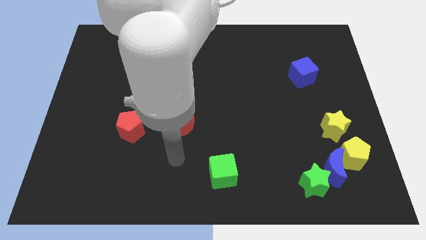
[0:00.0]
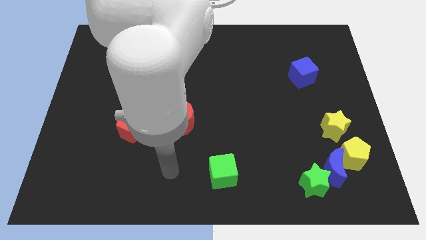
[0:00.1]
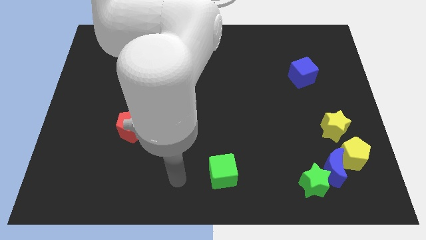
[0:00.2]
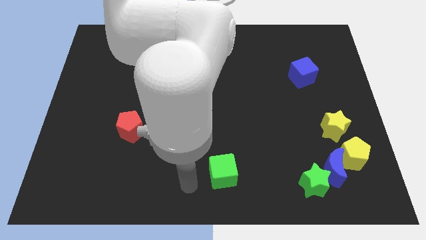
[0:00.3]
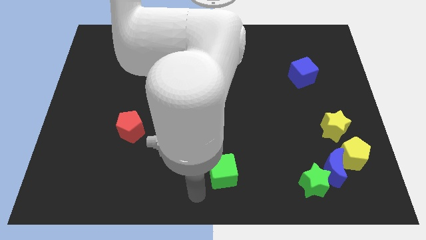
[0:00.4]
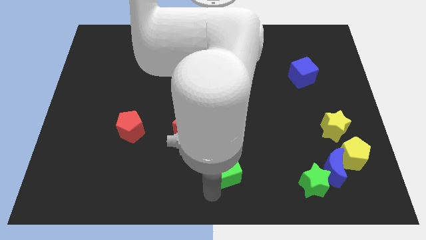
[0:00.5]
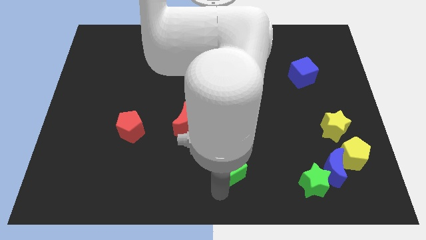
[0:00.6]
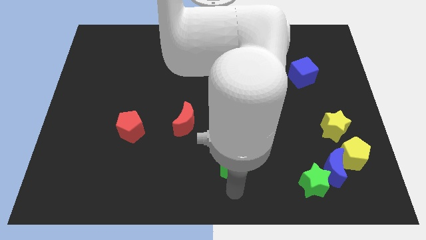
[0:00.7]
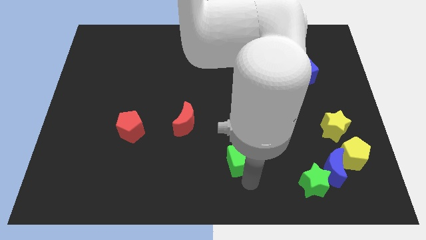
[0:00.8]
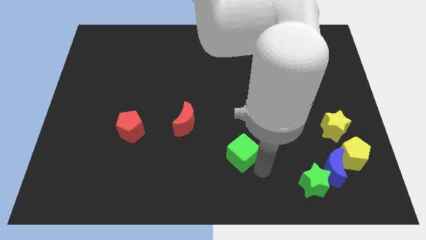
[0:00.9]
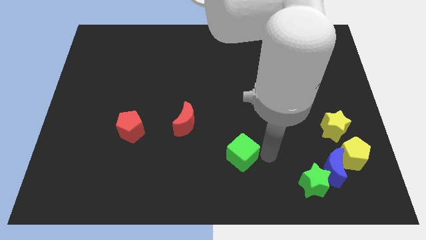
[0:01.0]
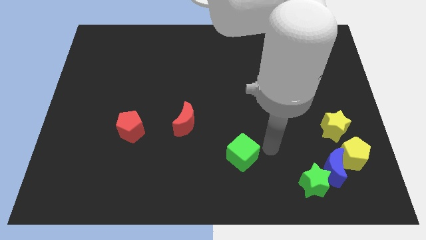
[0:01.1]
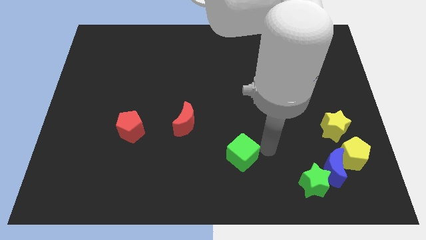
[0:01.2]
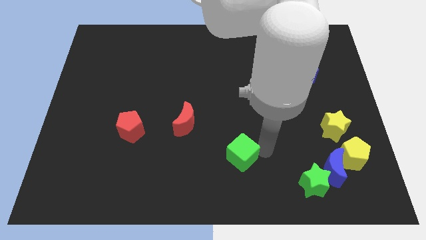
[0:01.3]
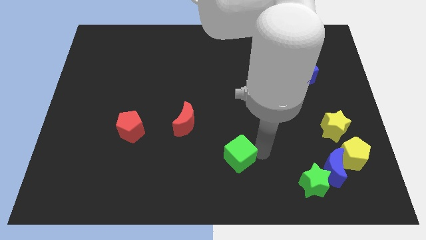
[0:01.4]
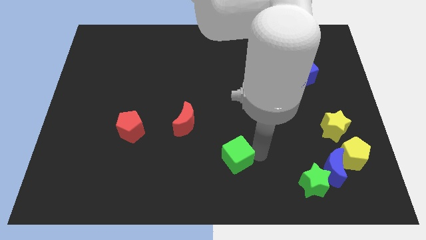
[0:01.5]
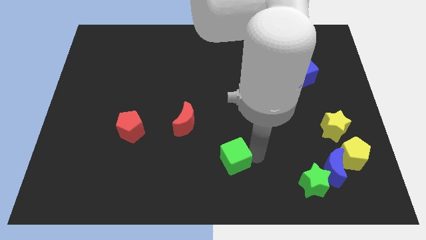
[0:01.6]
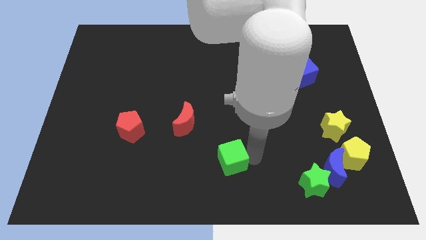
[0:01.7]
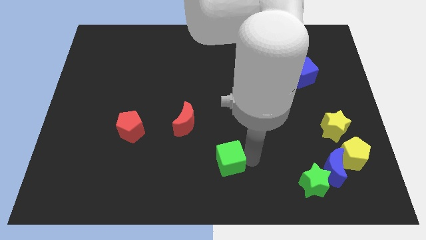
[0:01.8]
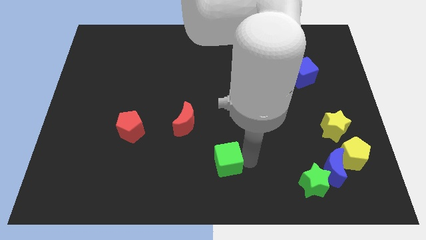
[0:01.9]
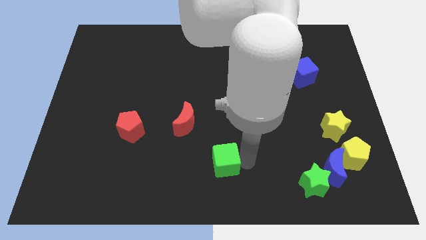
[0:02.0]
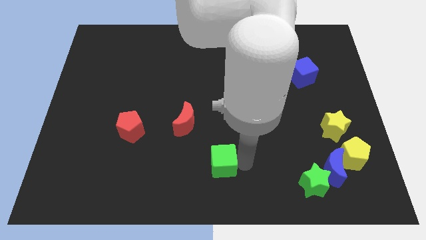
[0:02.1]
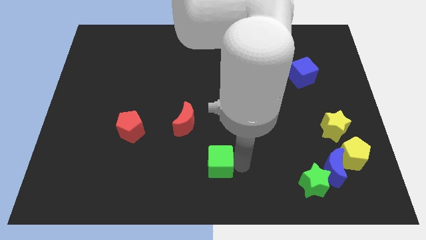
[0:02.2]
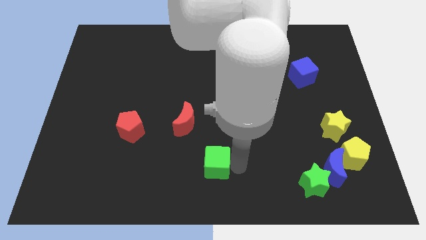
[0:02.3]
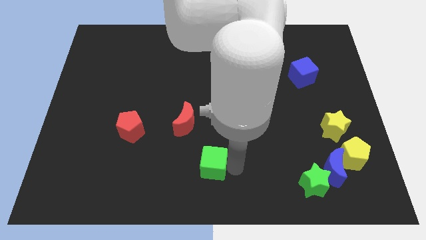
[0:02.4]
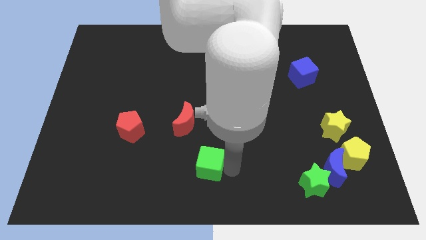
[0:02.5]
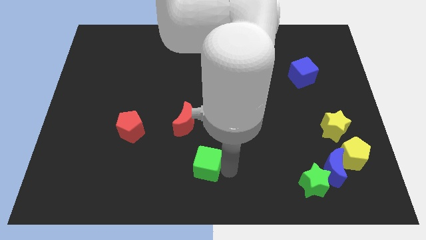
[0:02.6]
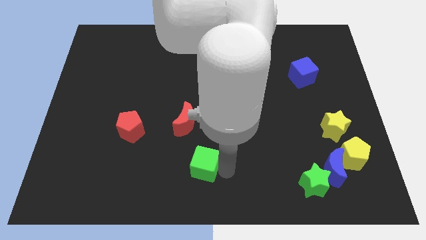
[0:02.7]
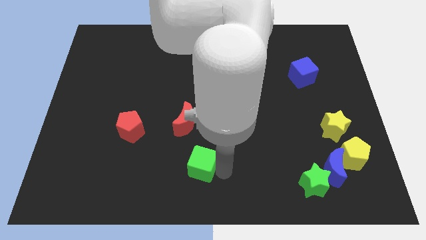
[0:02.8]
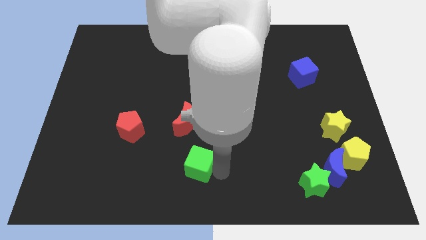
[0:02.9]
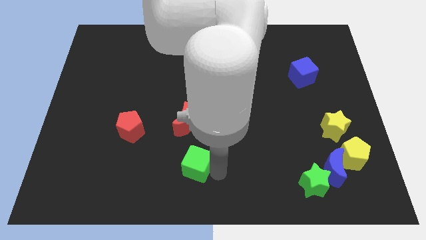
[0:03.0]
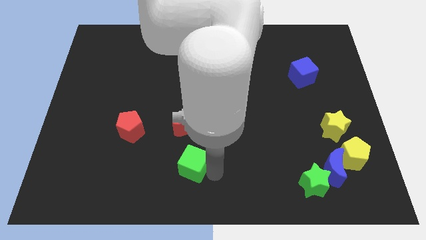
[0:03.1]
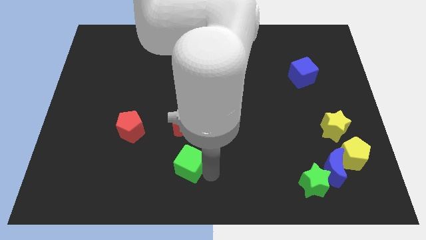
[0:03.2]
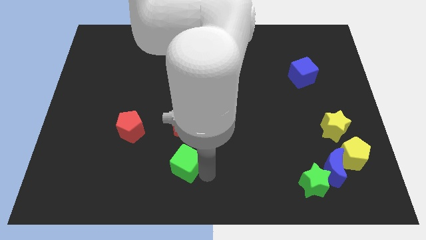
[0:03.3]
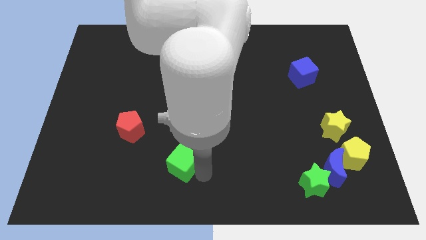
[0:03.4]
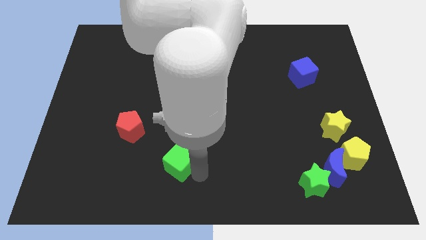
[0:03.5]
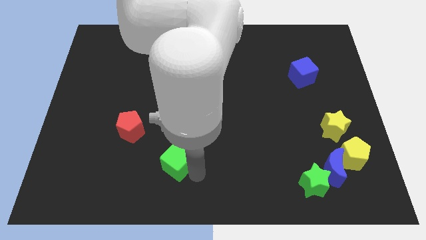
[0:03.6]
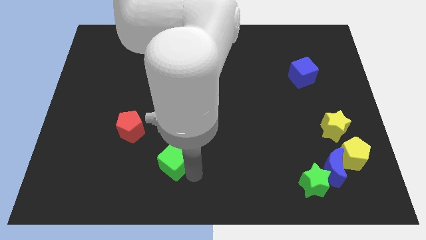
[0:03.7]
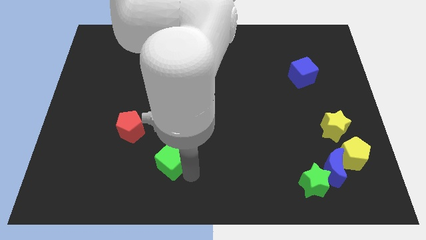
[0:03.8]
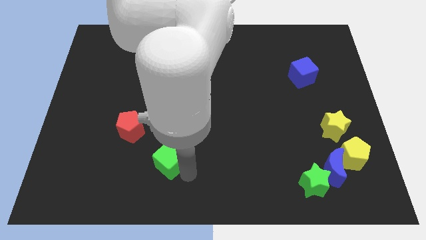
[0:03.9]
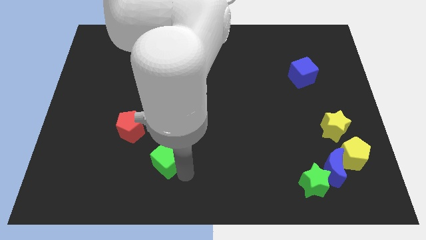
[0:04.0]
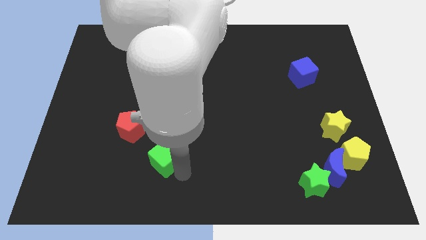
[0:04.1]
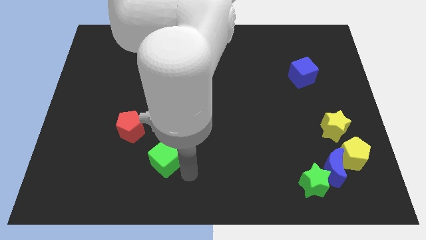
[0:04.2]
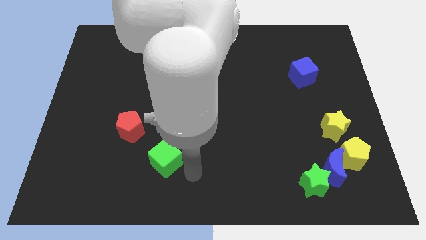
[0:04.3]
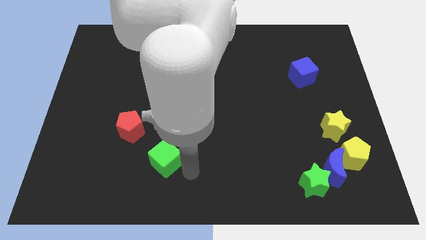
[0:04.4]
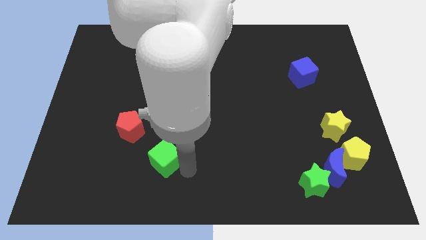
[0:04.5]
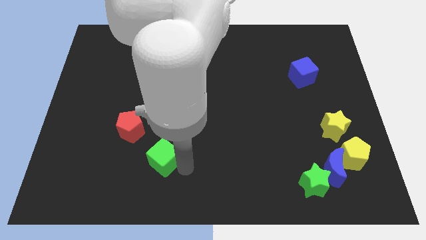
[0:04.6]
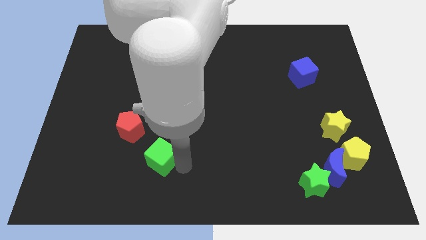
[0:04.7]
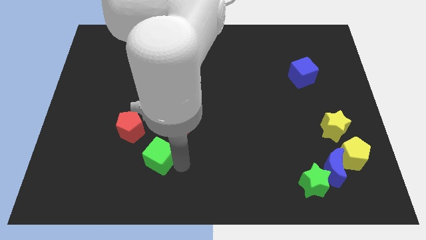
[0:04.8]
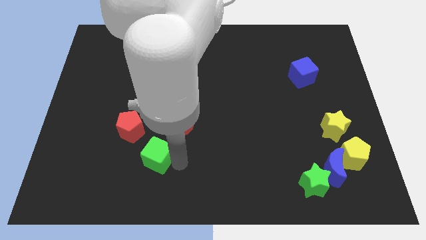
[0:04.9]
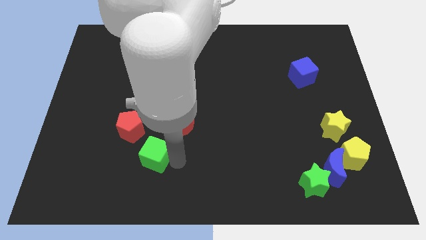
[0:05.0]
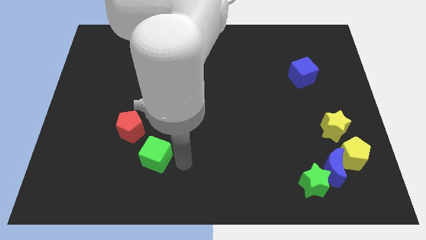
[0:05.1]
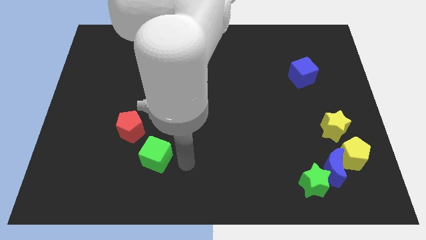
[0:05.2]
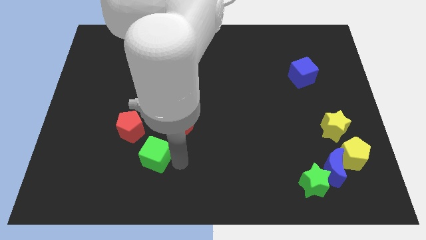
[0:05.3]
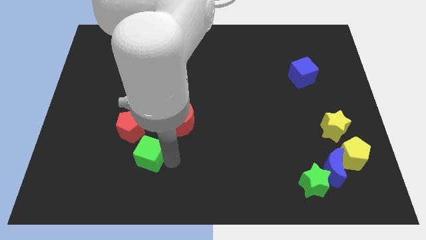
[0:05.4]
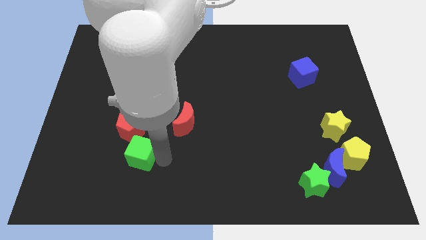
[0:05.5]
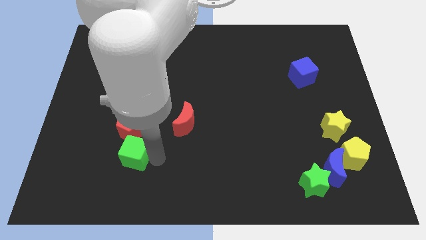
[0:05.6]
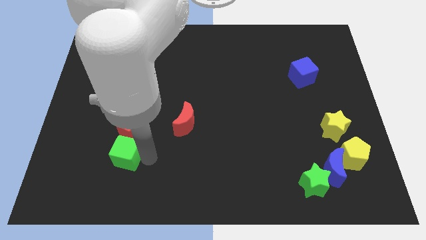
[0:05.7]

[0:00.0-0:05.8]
push the green cube to the bottom left of the red pentagon

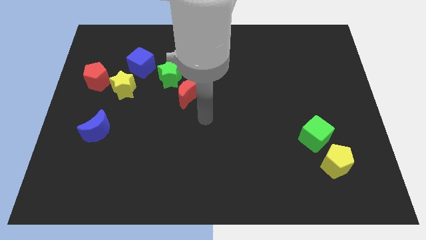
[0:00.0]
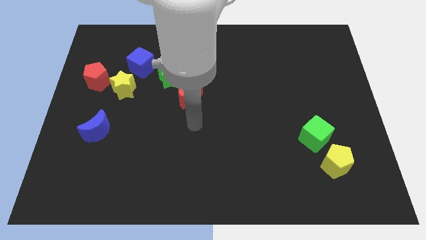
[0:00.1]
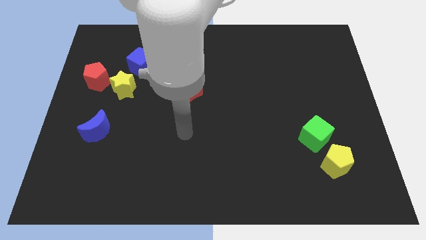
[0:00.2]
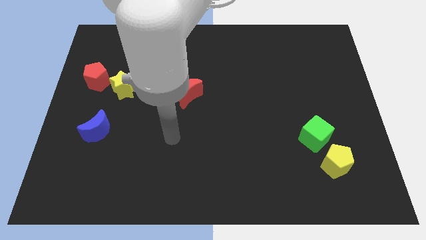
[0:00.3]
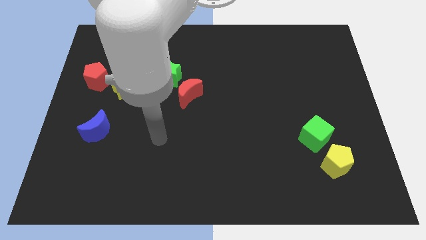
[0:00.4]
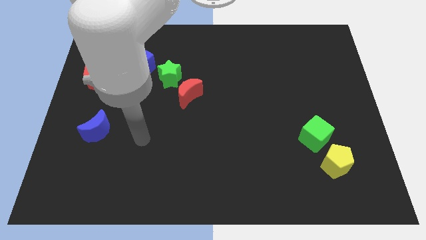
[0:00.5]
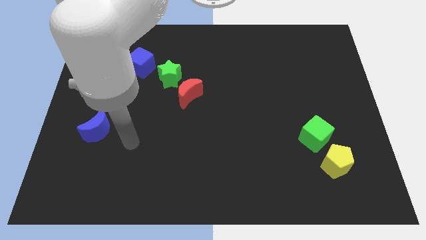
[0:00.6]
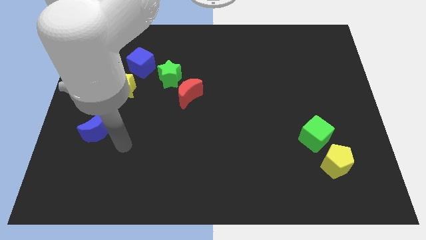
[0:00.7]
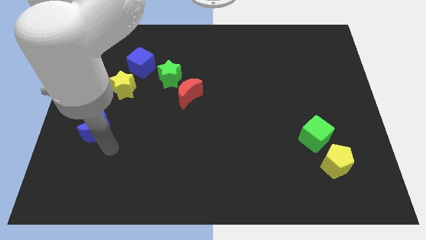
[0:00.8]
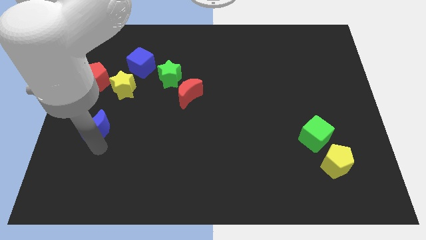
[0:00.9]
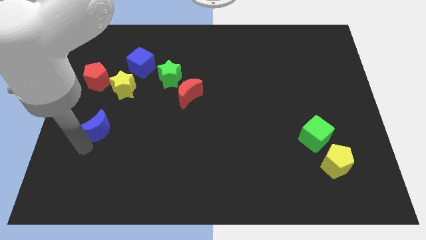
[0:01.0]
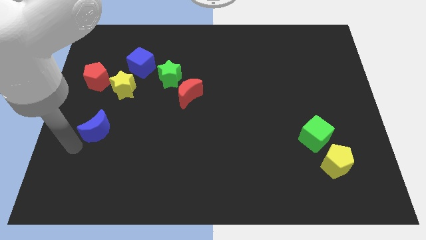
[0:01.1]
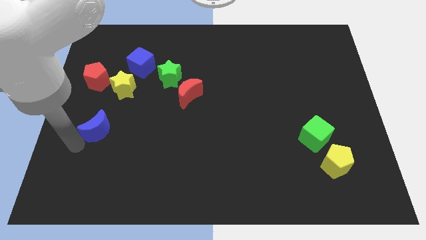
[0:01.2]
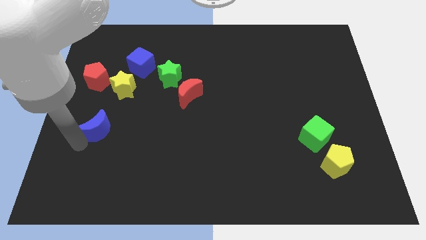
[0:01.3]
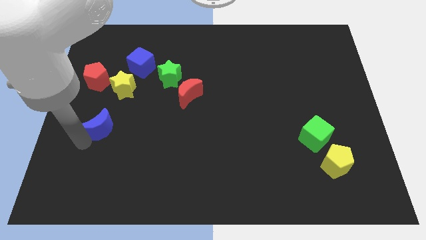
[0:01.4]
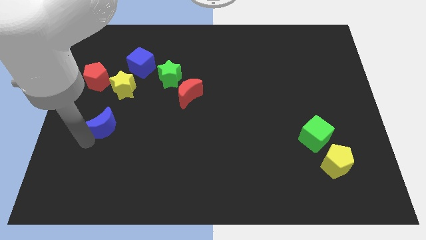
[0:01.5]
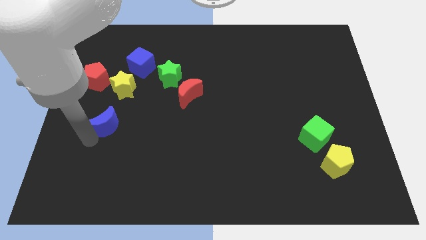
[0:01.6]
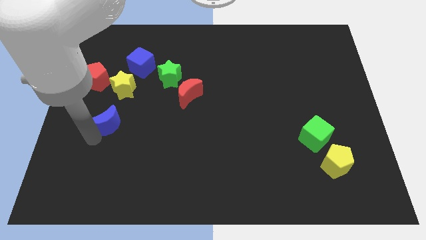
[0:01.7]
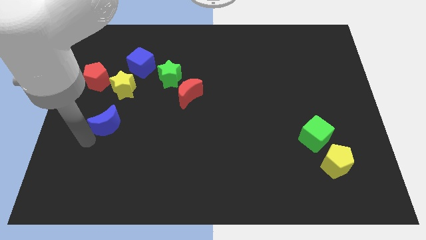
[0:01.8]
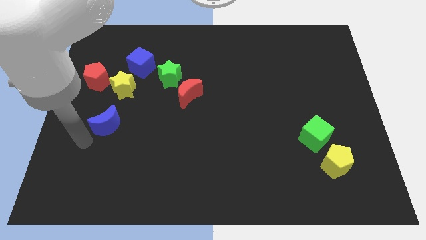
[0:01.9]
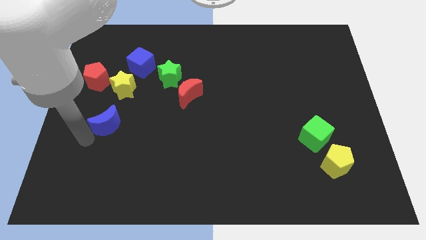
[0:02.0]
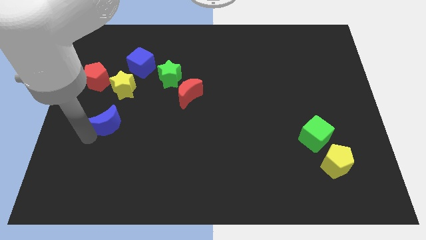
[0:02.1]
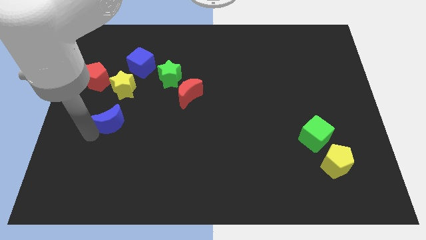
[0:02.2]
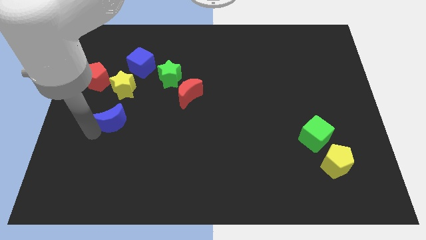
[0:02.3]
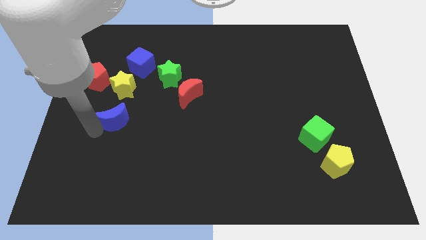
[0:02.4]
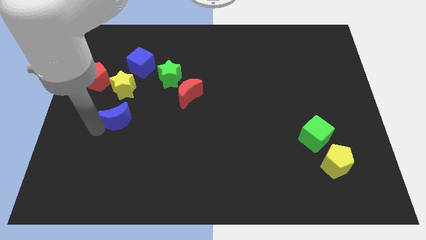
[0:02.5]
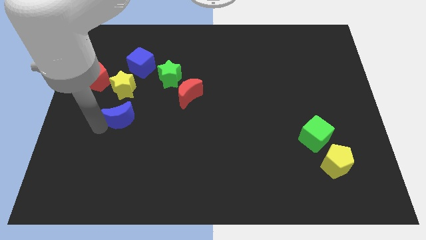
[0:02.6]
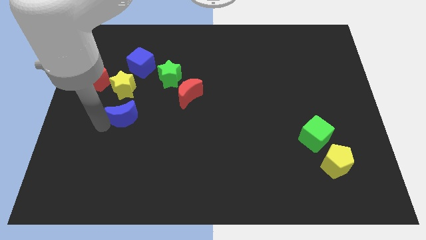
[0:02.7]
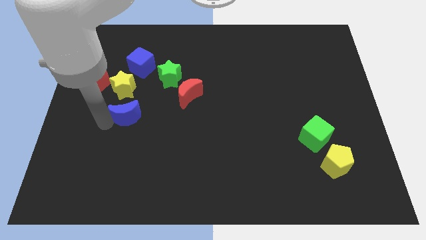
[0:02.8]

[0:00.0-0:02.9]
move the blue moon diagonally down and to the right of the yellow star
